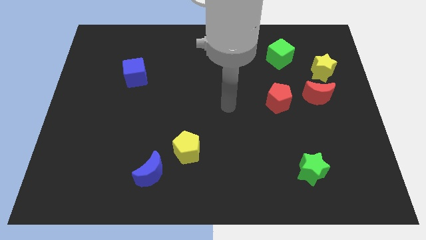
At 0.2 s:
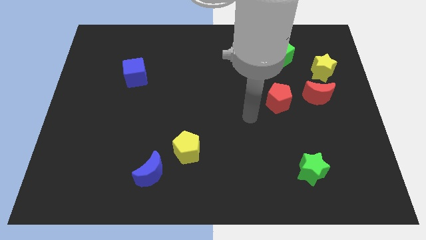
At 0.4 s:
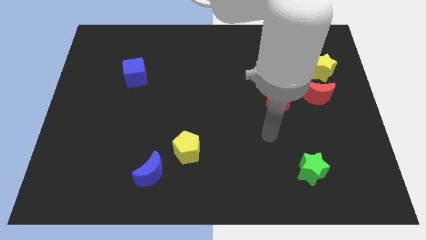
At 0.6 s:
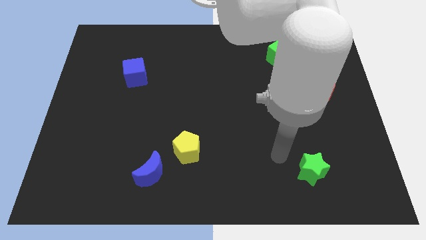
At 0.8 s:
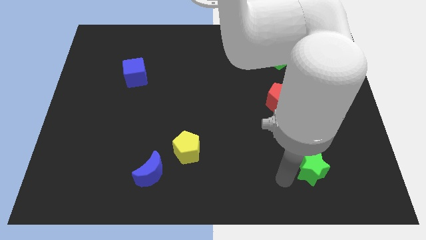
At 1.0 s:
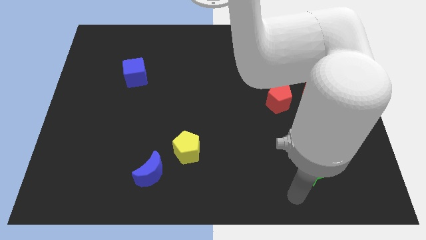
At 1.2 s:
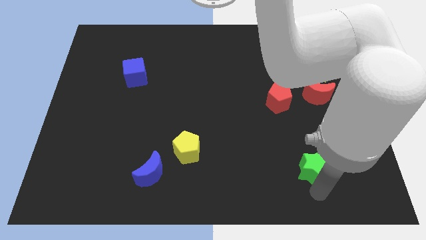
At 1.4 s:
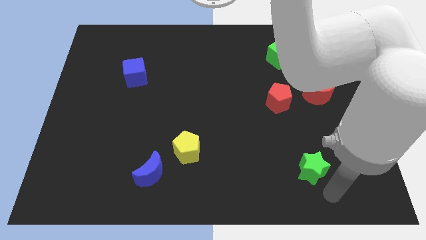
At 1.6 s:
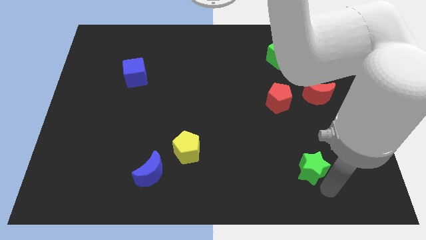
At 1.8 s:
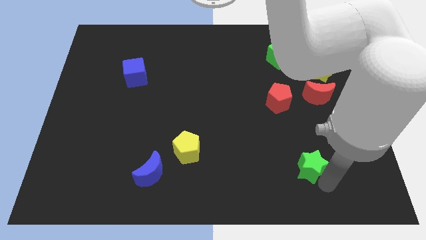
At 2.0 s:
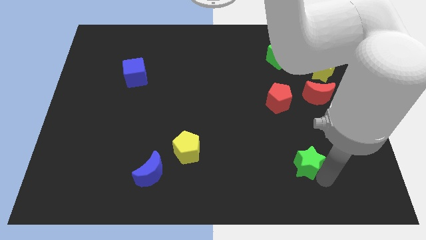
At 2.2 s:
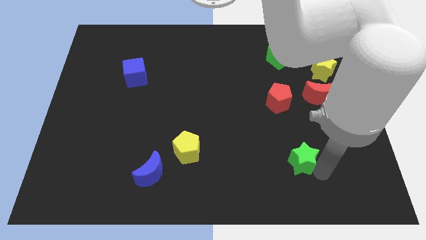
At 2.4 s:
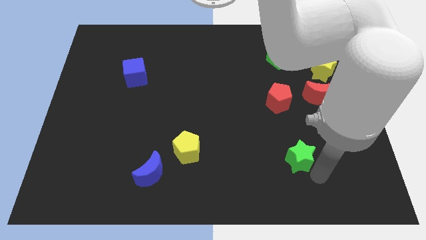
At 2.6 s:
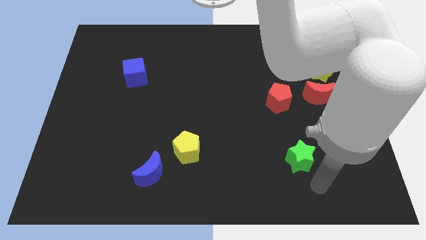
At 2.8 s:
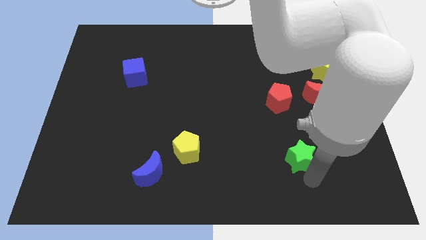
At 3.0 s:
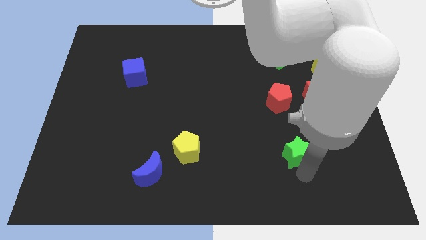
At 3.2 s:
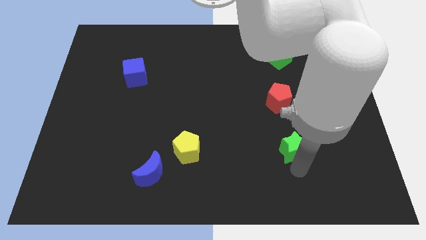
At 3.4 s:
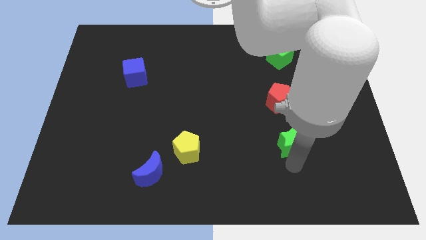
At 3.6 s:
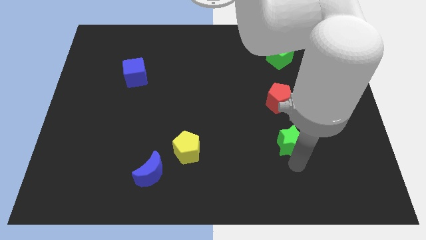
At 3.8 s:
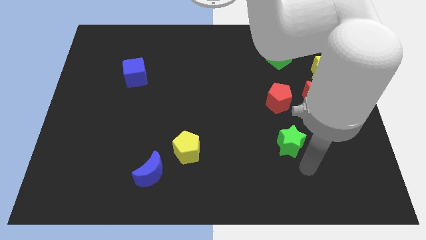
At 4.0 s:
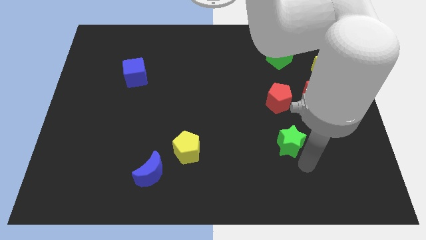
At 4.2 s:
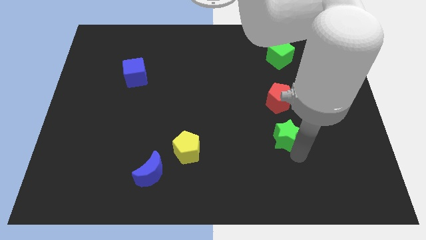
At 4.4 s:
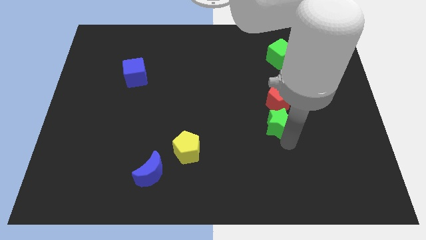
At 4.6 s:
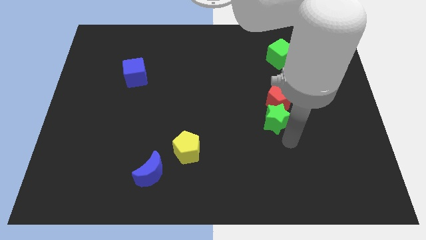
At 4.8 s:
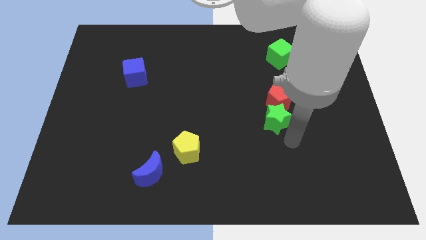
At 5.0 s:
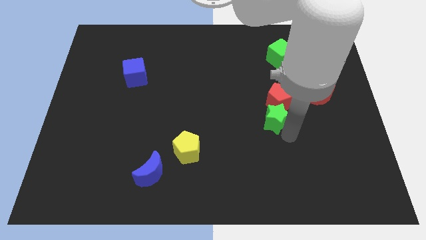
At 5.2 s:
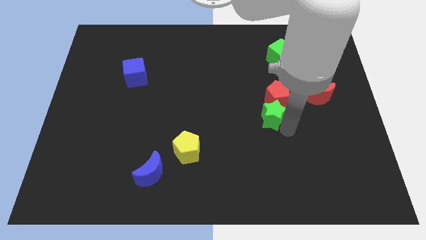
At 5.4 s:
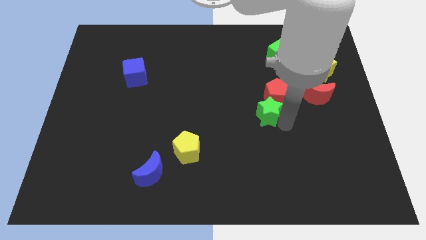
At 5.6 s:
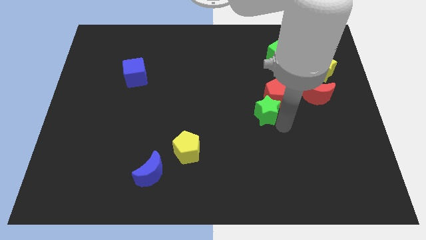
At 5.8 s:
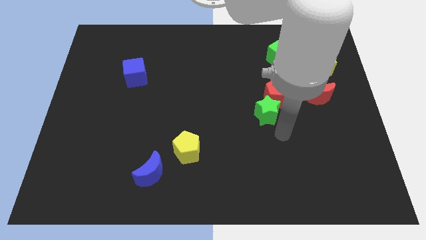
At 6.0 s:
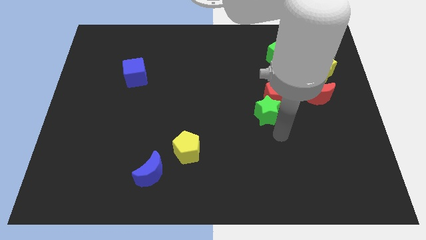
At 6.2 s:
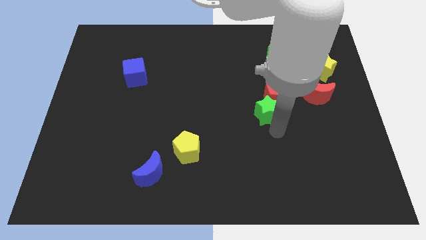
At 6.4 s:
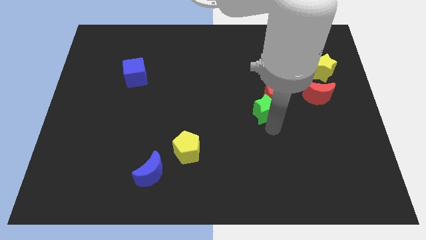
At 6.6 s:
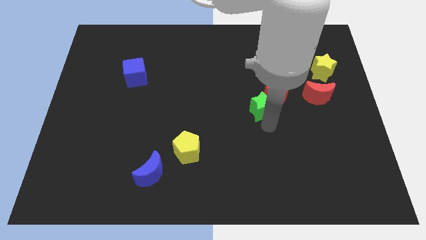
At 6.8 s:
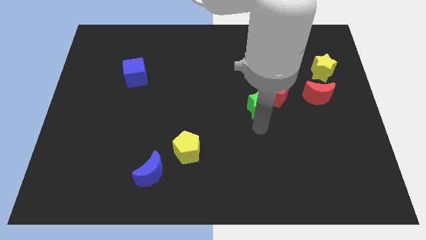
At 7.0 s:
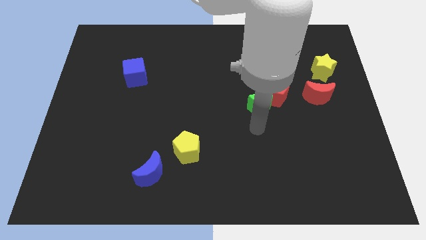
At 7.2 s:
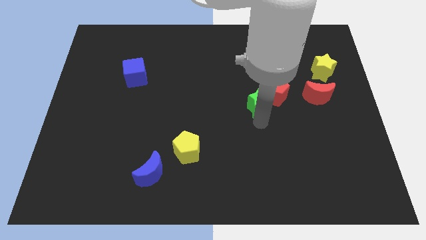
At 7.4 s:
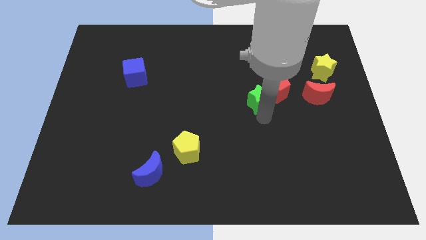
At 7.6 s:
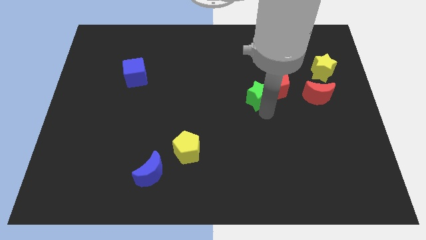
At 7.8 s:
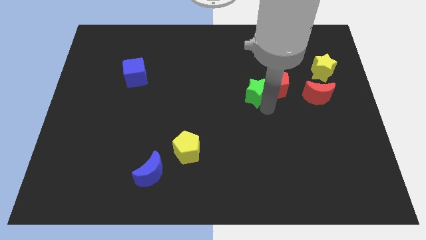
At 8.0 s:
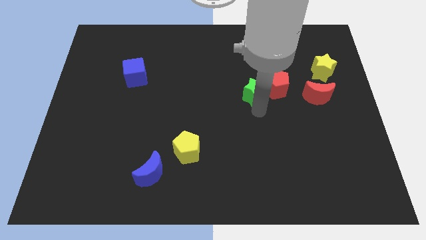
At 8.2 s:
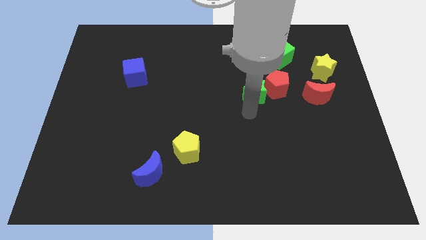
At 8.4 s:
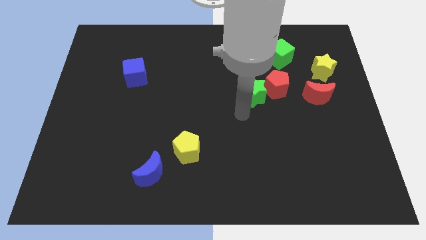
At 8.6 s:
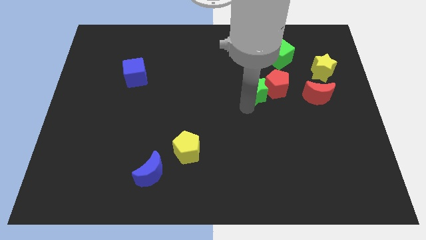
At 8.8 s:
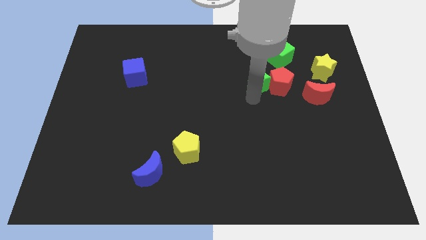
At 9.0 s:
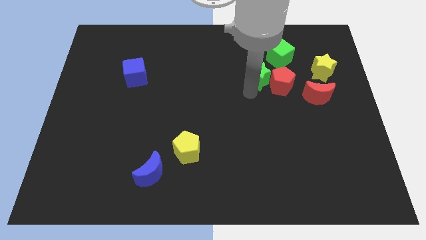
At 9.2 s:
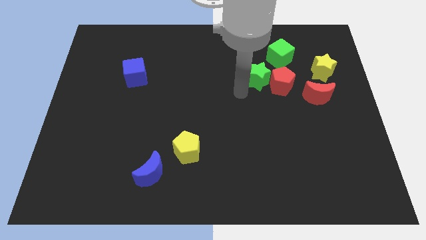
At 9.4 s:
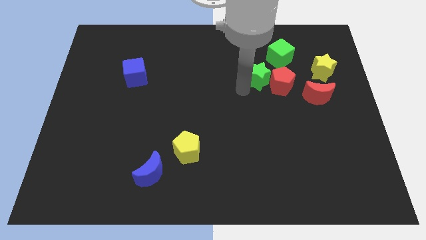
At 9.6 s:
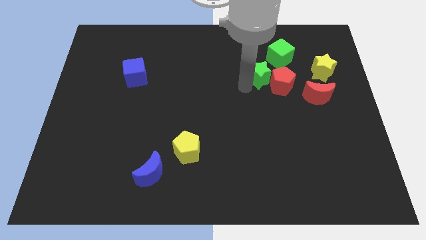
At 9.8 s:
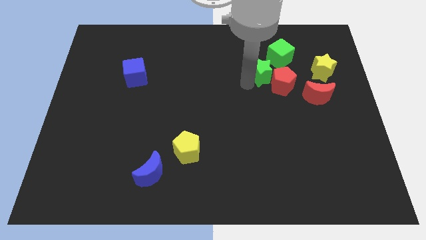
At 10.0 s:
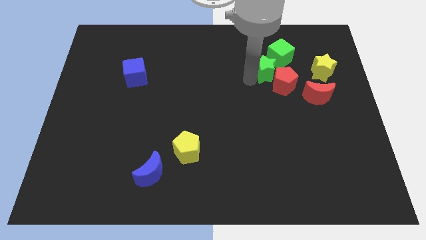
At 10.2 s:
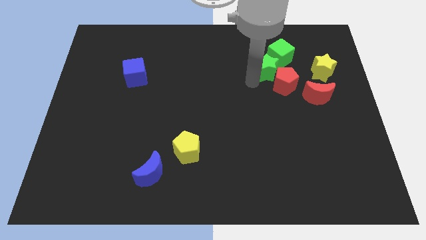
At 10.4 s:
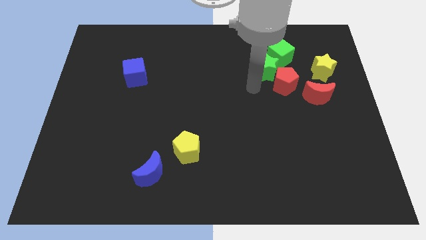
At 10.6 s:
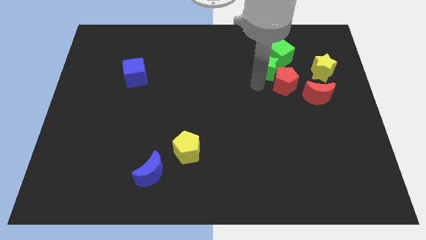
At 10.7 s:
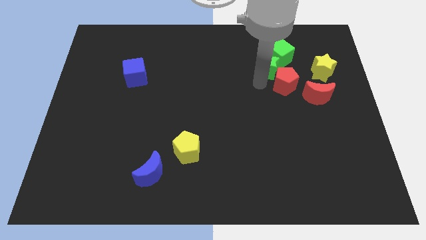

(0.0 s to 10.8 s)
put the green star close to the green cube

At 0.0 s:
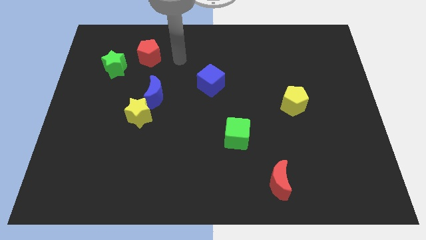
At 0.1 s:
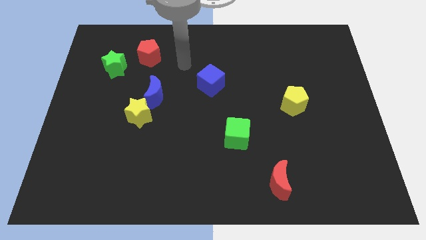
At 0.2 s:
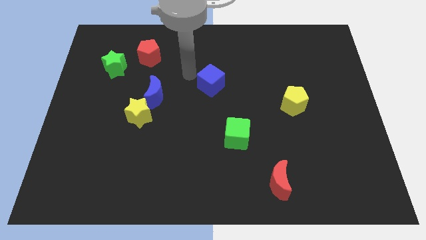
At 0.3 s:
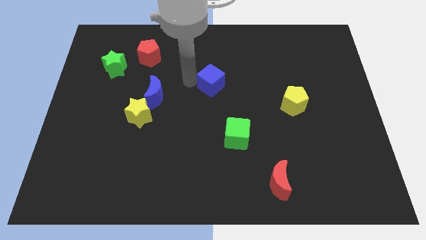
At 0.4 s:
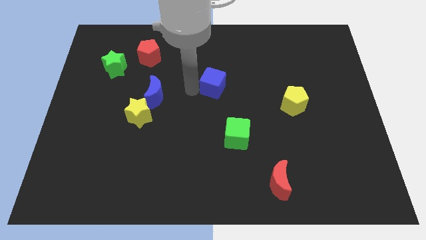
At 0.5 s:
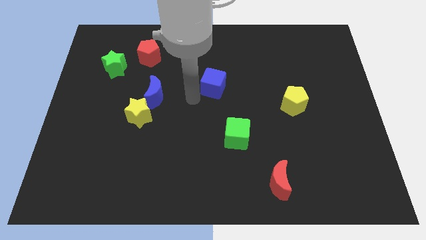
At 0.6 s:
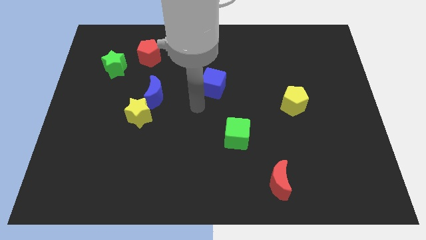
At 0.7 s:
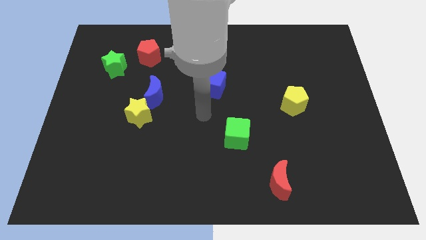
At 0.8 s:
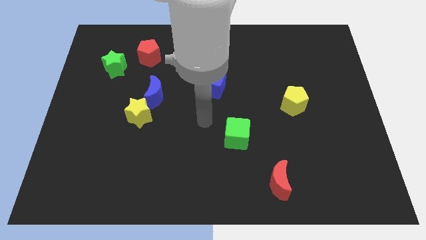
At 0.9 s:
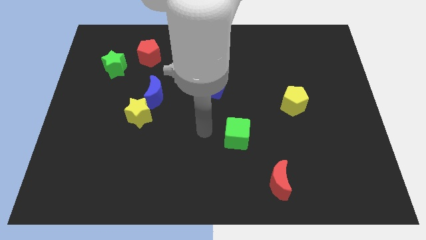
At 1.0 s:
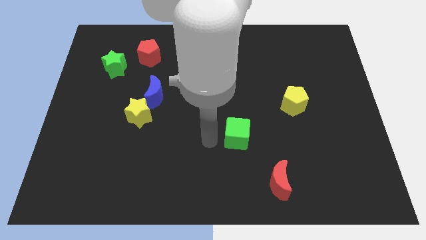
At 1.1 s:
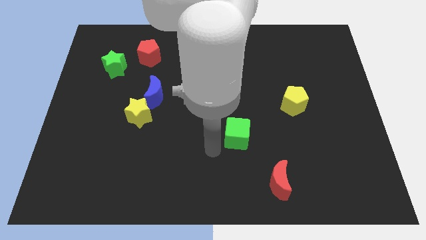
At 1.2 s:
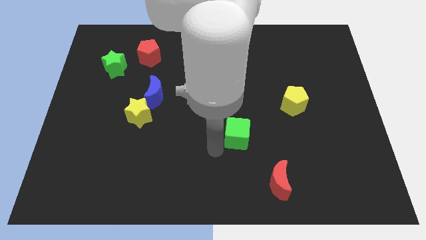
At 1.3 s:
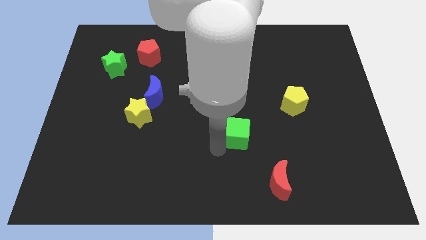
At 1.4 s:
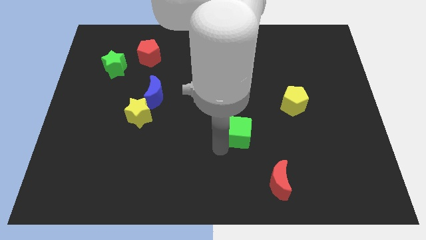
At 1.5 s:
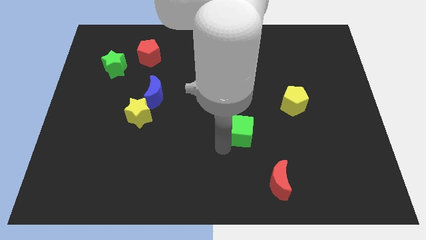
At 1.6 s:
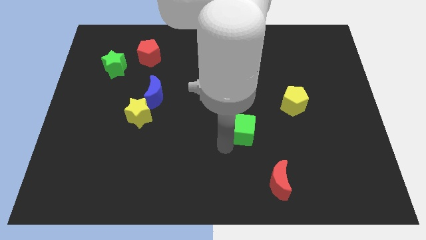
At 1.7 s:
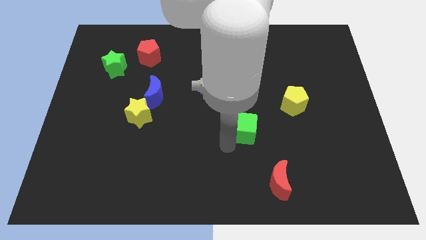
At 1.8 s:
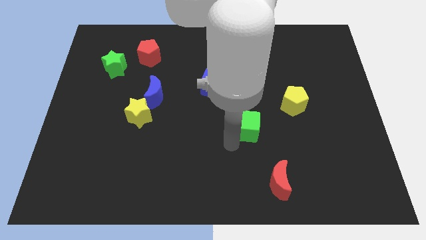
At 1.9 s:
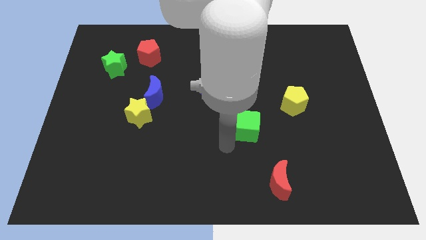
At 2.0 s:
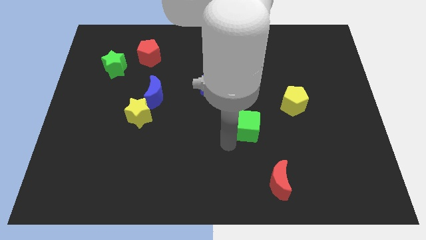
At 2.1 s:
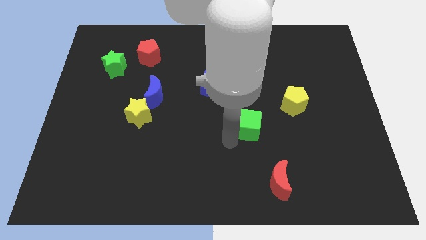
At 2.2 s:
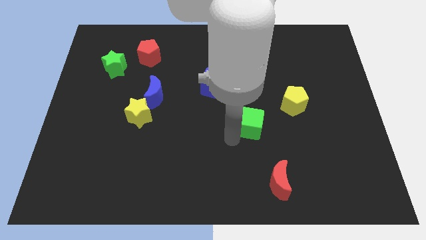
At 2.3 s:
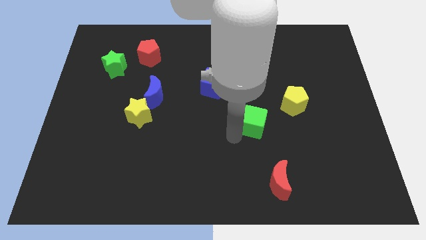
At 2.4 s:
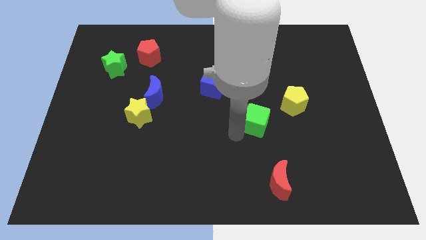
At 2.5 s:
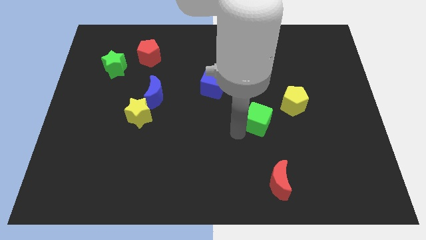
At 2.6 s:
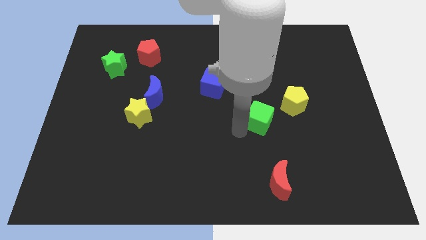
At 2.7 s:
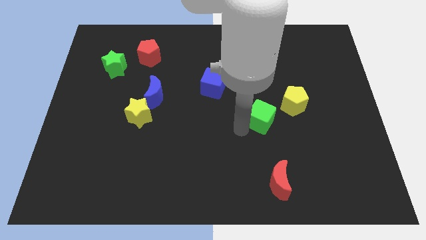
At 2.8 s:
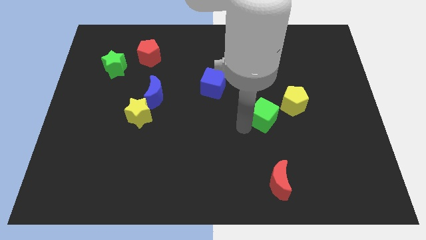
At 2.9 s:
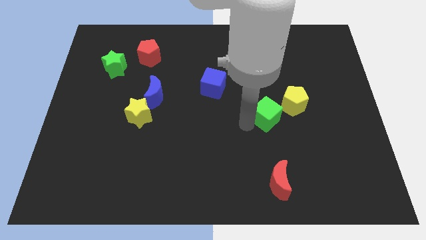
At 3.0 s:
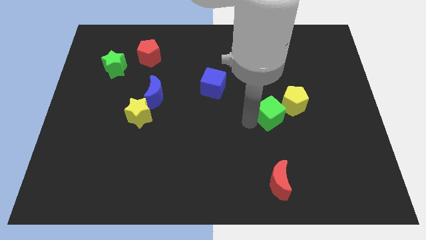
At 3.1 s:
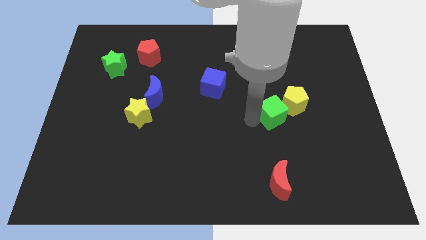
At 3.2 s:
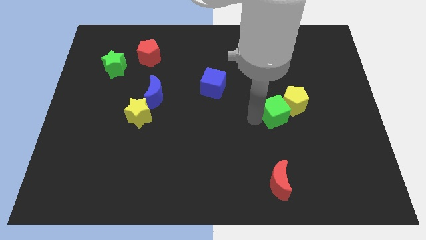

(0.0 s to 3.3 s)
push the green cube next to the yellow pentagon
